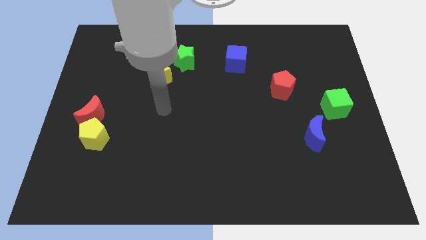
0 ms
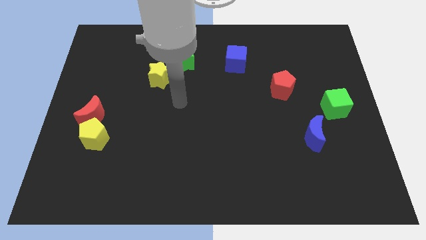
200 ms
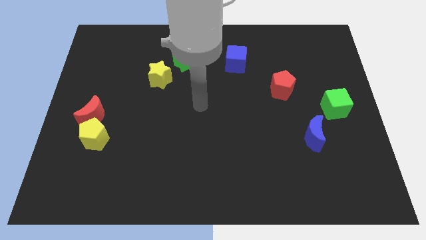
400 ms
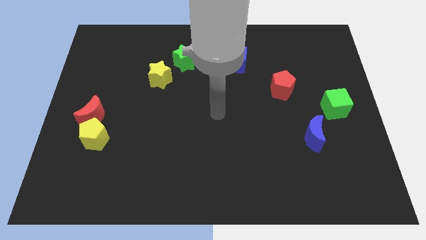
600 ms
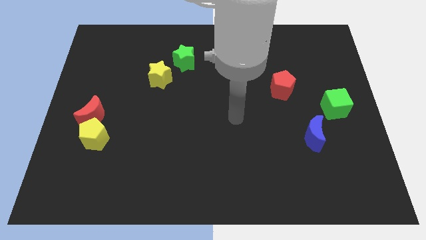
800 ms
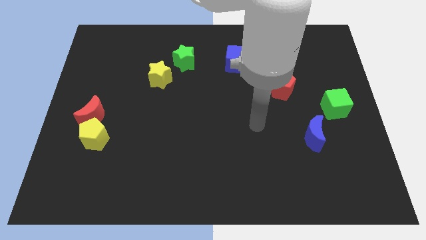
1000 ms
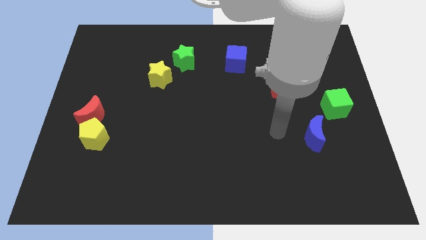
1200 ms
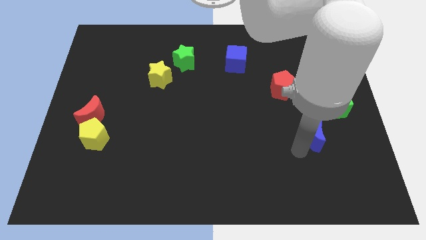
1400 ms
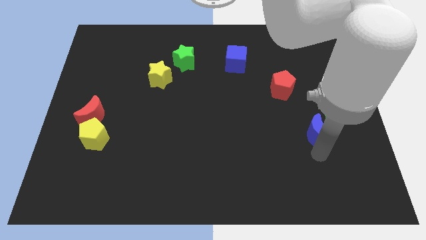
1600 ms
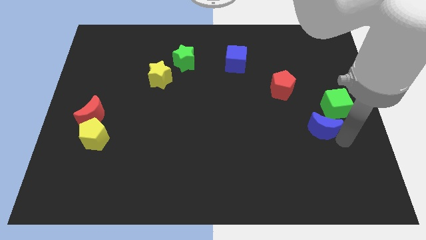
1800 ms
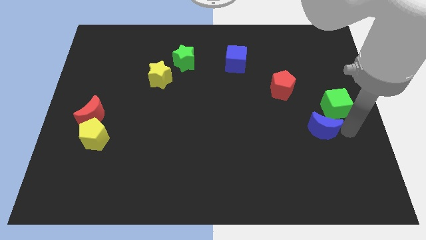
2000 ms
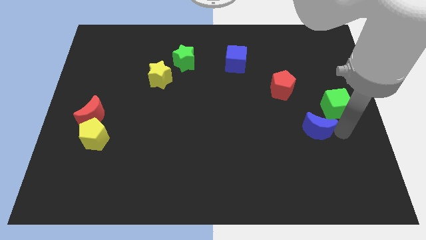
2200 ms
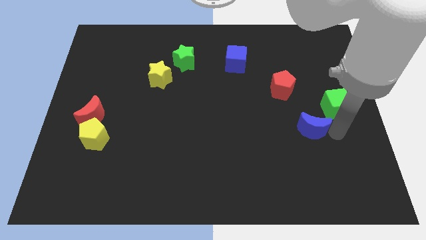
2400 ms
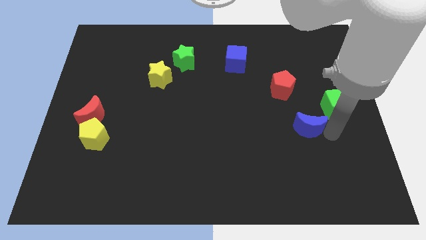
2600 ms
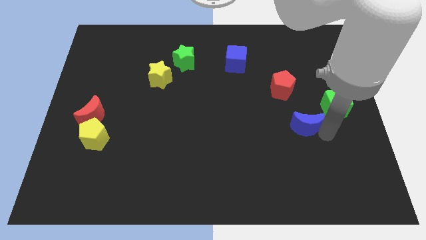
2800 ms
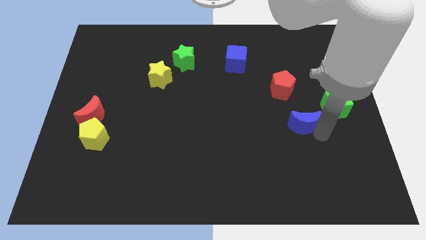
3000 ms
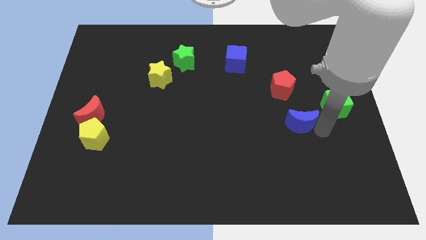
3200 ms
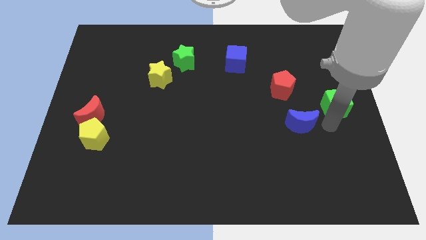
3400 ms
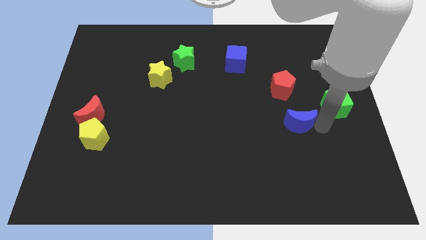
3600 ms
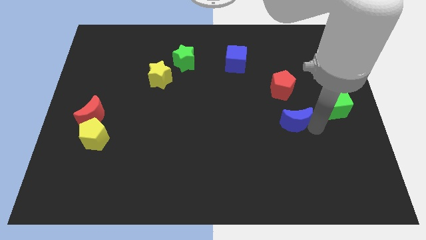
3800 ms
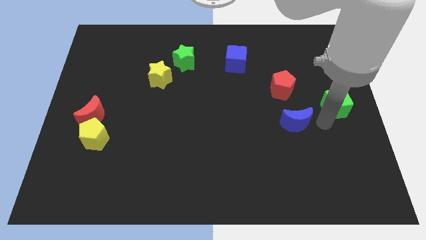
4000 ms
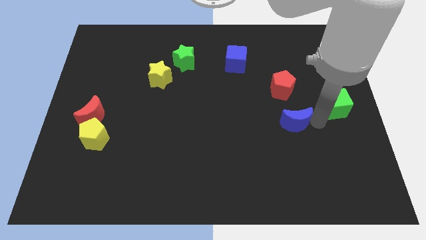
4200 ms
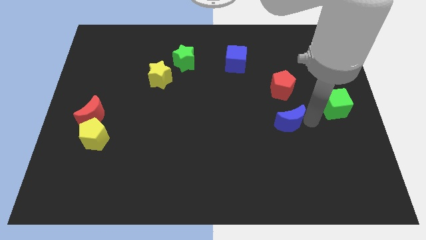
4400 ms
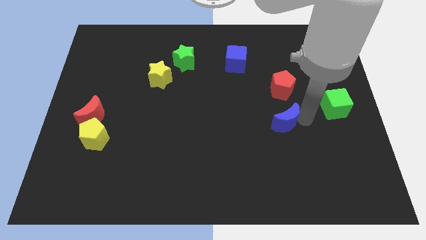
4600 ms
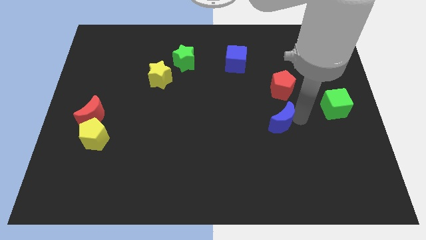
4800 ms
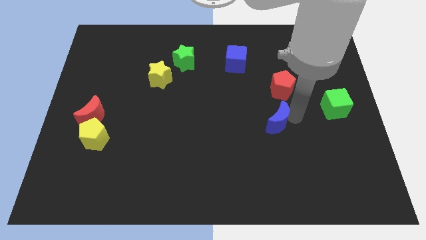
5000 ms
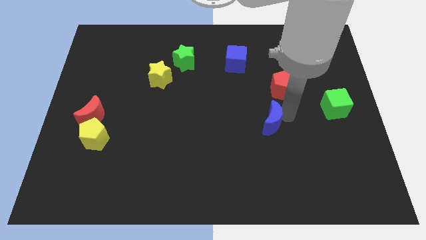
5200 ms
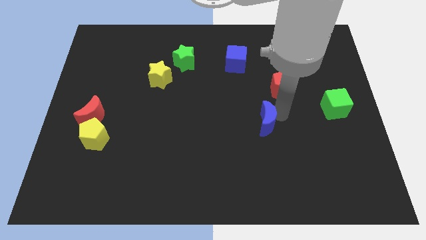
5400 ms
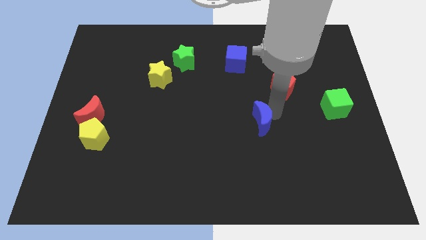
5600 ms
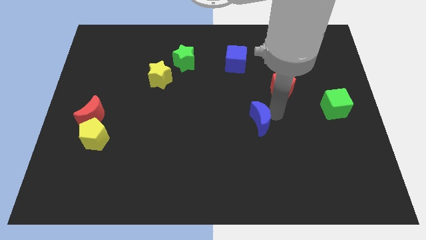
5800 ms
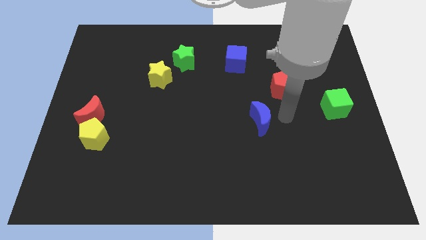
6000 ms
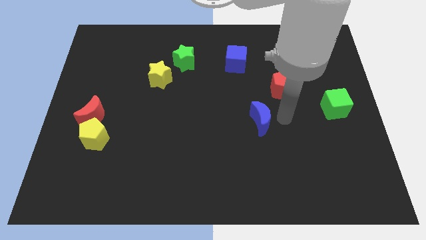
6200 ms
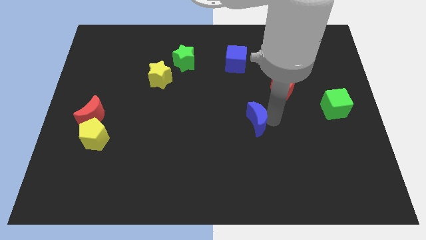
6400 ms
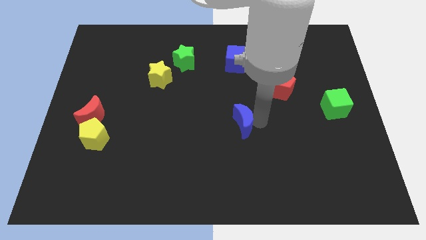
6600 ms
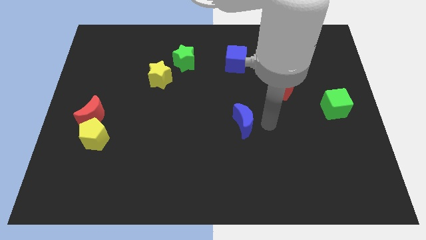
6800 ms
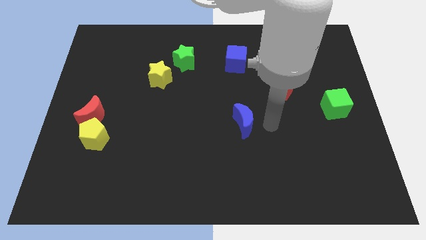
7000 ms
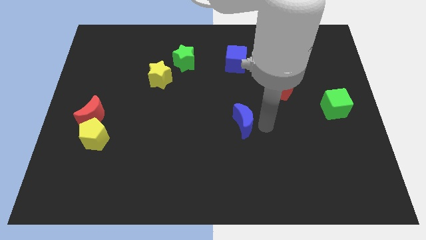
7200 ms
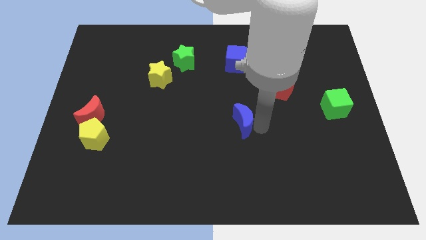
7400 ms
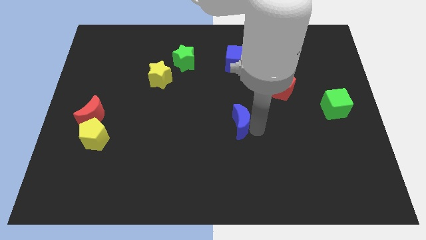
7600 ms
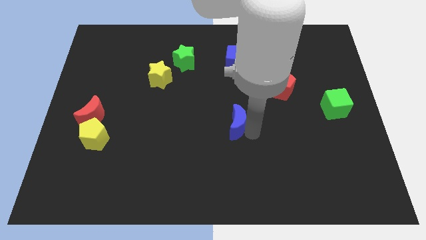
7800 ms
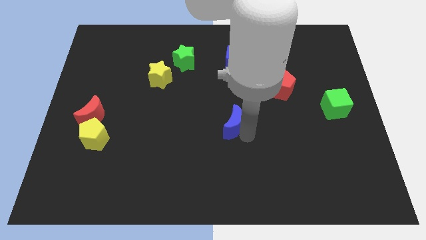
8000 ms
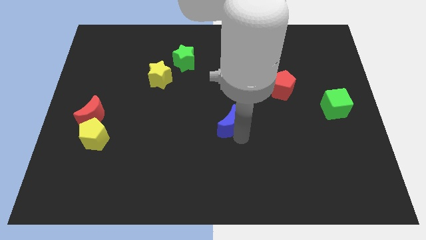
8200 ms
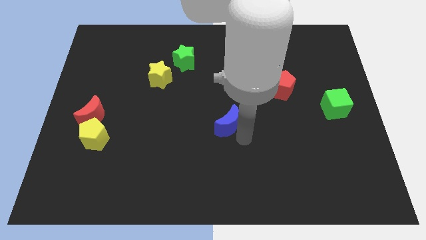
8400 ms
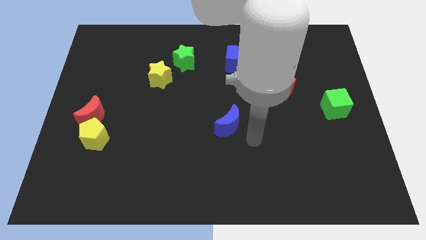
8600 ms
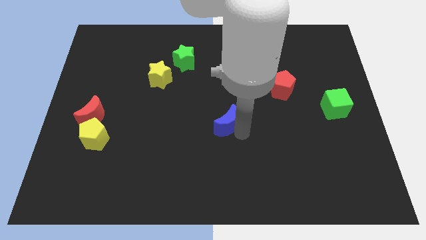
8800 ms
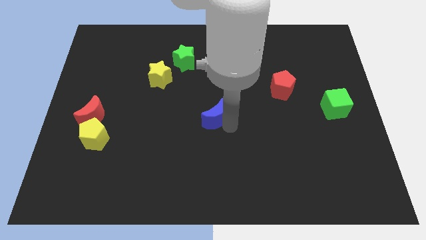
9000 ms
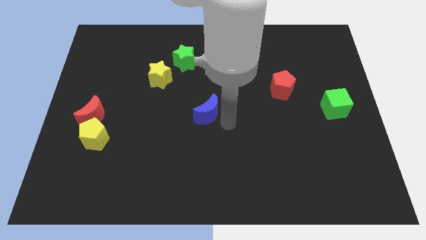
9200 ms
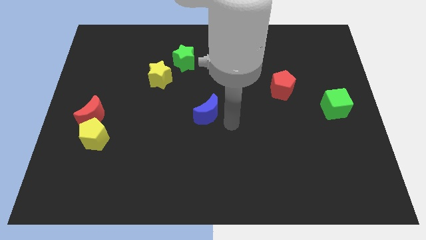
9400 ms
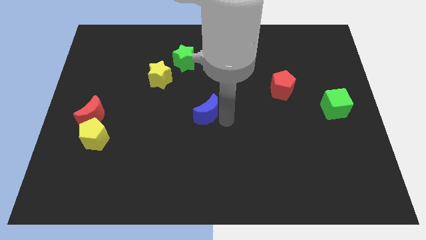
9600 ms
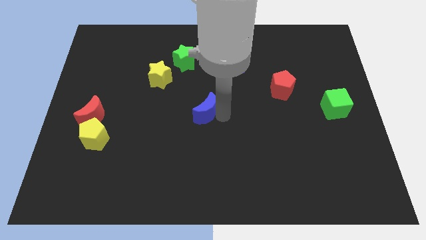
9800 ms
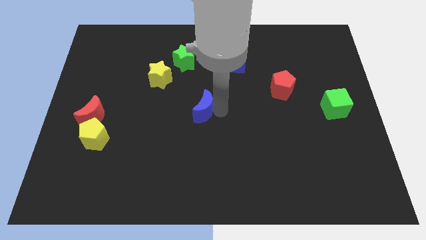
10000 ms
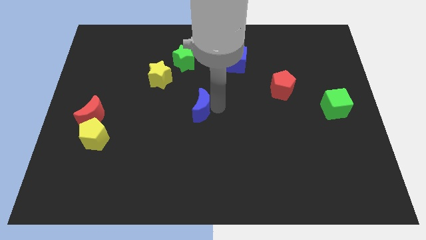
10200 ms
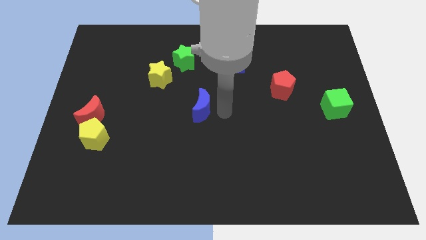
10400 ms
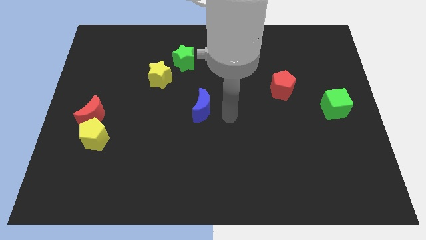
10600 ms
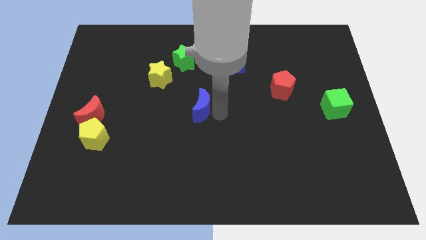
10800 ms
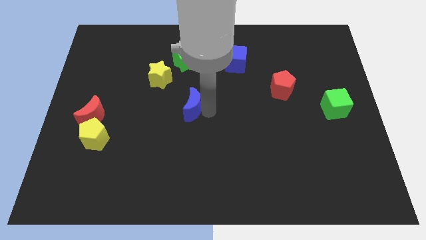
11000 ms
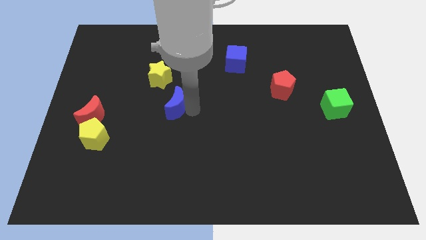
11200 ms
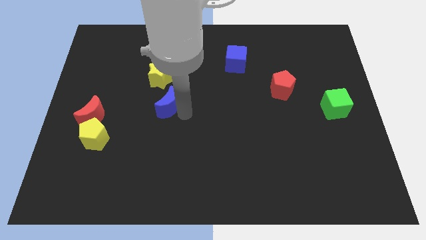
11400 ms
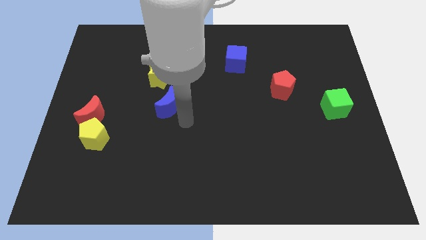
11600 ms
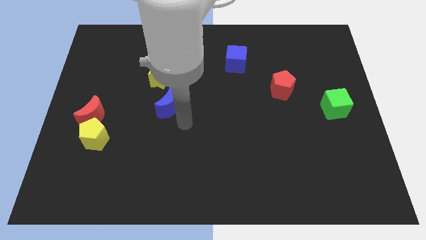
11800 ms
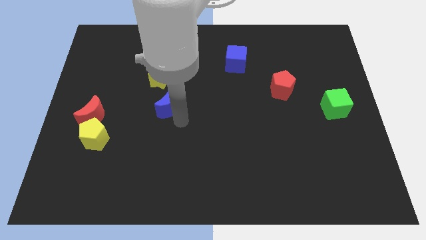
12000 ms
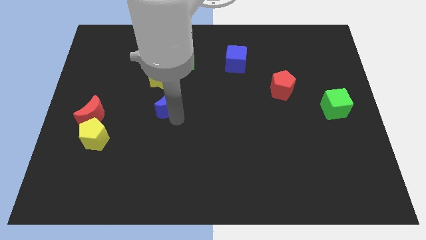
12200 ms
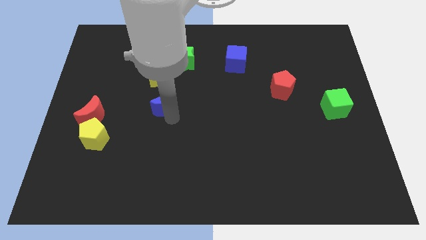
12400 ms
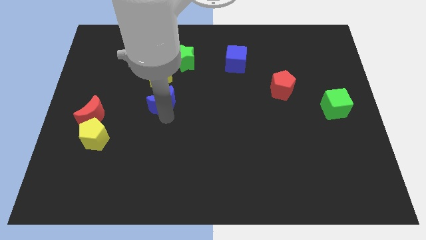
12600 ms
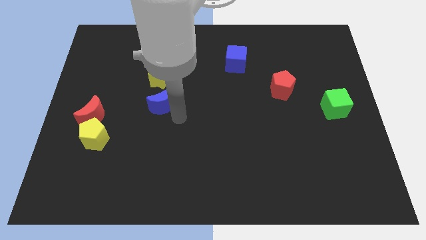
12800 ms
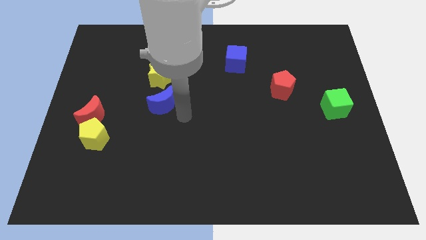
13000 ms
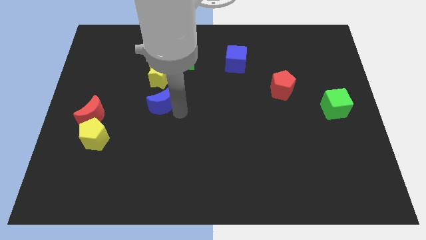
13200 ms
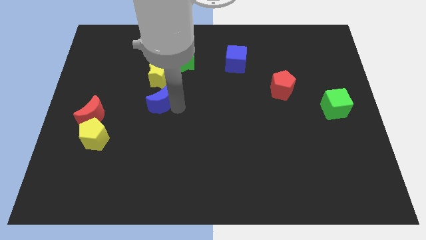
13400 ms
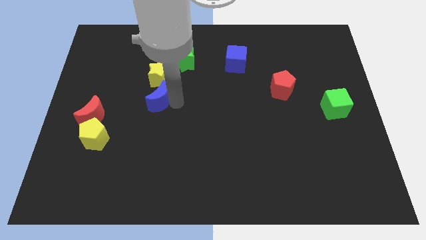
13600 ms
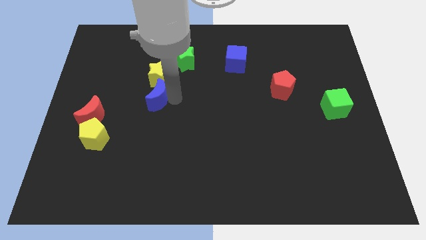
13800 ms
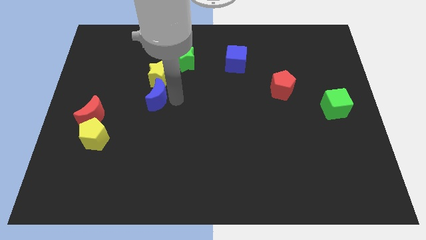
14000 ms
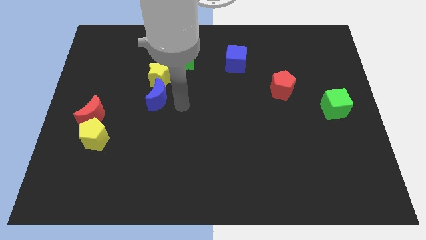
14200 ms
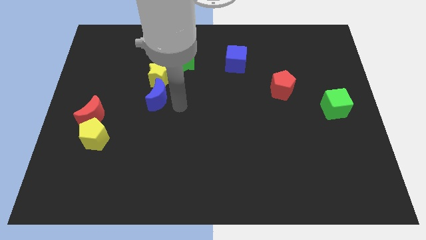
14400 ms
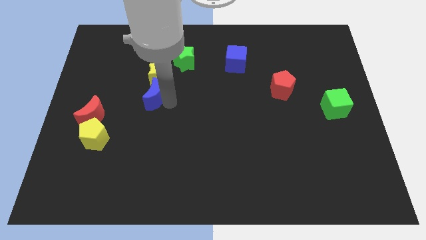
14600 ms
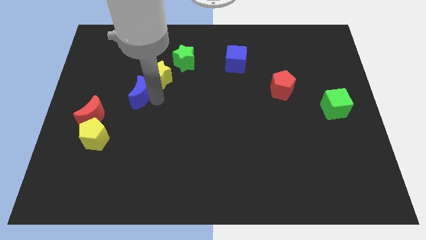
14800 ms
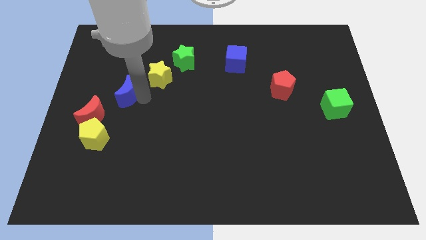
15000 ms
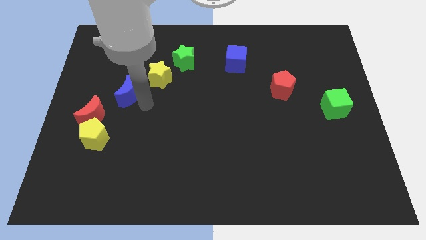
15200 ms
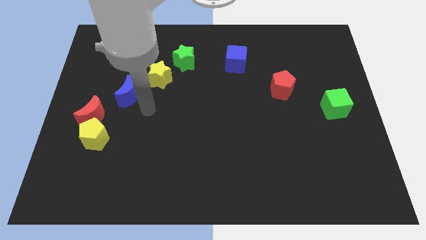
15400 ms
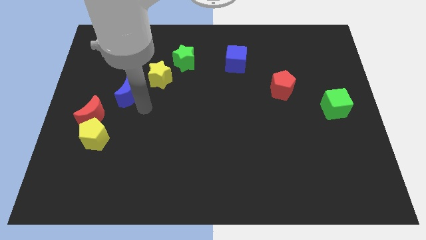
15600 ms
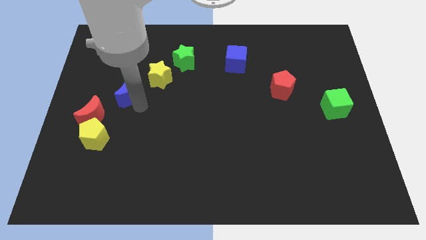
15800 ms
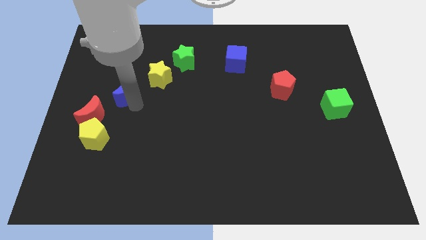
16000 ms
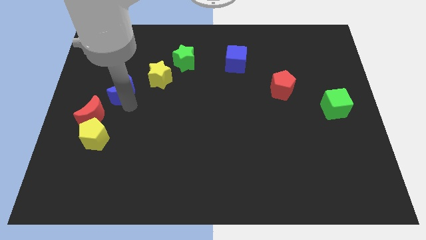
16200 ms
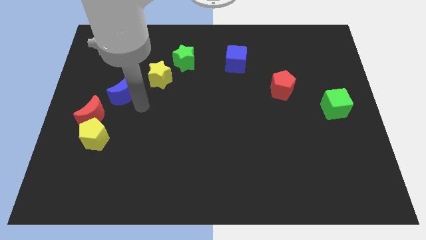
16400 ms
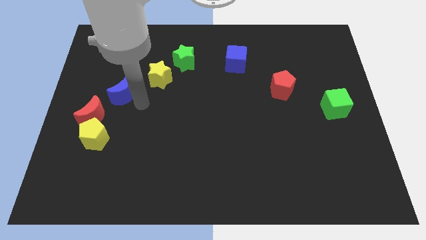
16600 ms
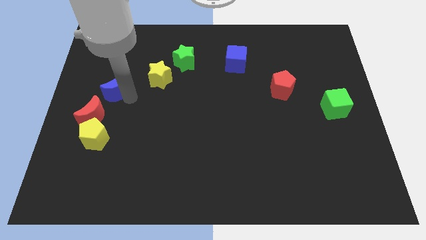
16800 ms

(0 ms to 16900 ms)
slide the blue moon to the top of the red moon
